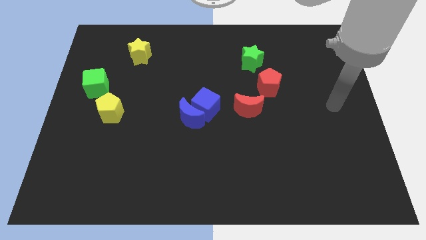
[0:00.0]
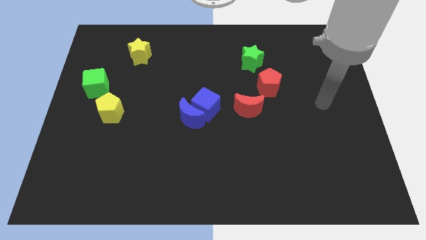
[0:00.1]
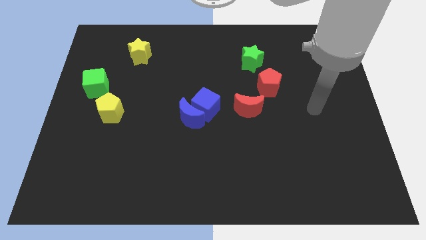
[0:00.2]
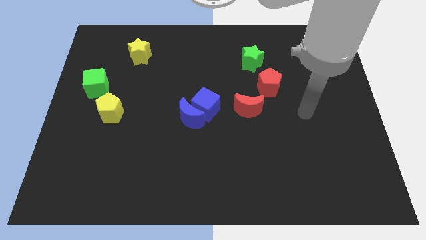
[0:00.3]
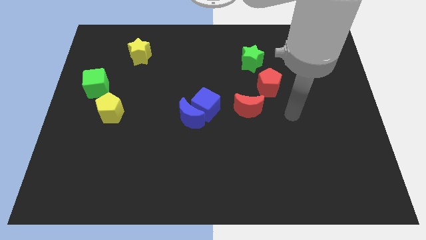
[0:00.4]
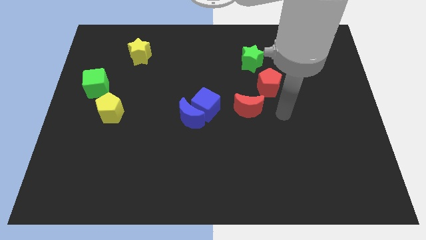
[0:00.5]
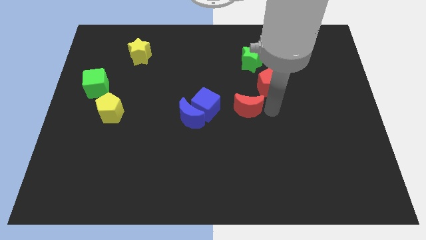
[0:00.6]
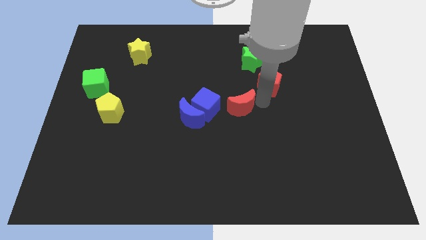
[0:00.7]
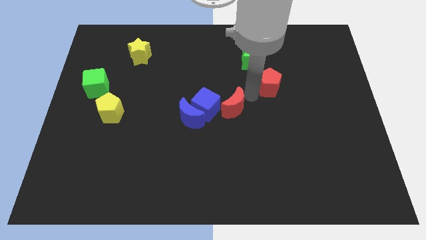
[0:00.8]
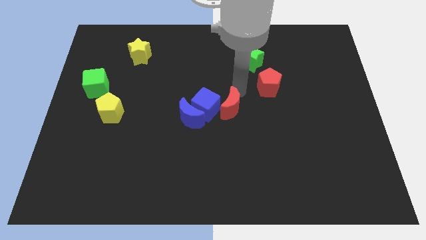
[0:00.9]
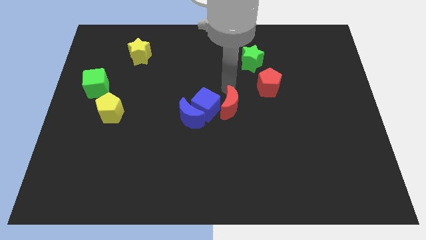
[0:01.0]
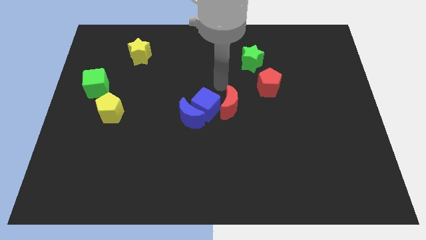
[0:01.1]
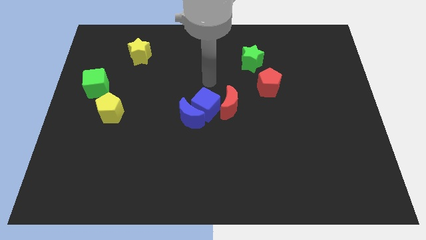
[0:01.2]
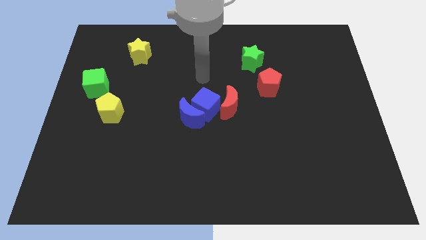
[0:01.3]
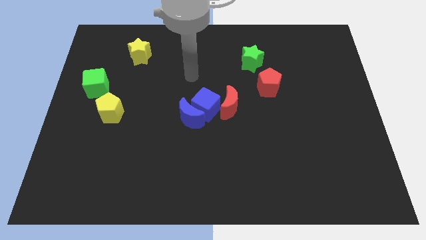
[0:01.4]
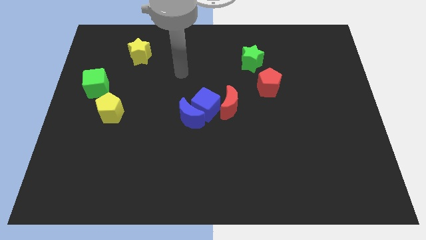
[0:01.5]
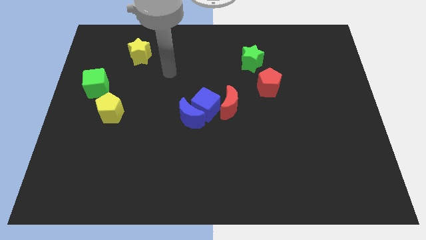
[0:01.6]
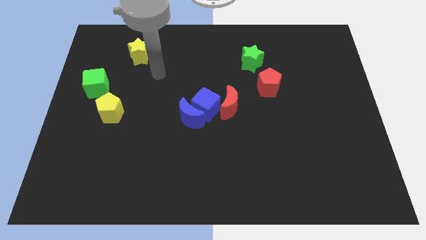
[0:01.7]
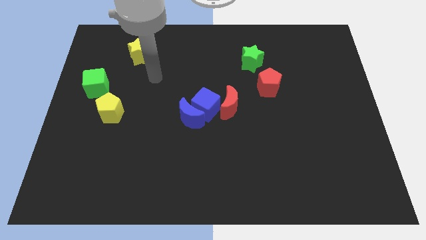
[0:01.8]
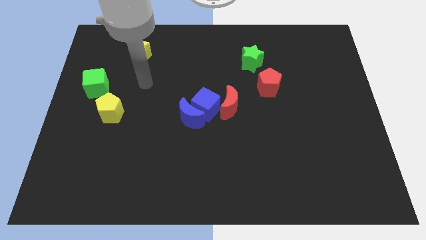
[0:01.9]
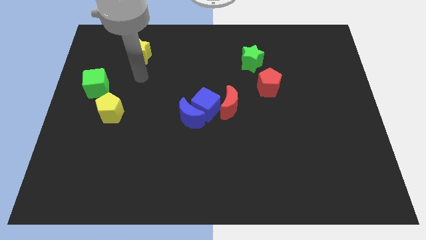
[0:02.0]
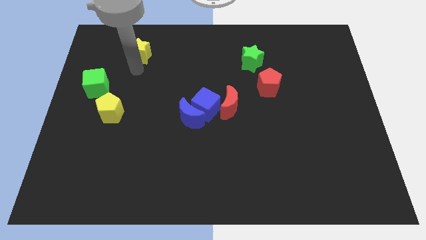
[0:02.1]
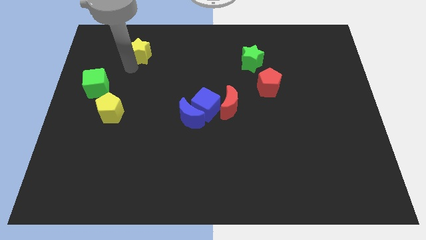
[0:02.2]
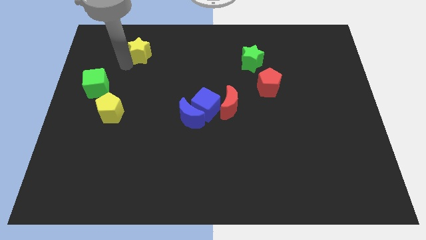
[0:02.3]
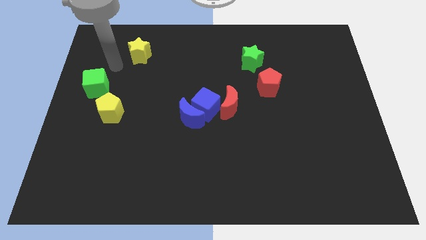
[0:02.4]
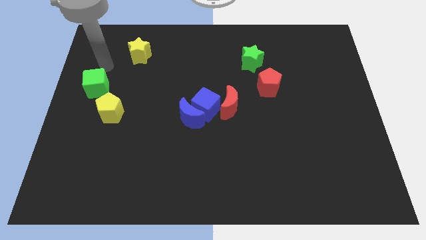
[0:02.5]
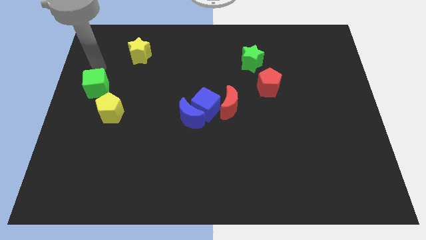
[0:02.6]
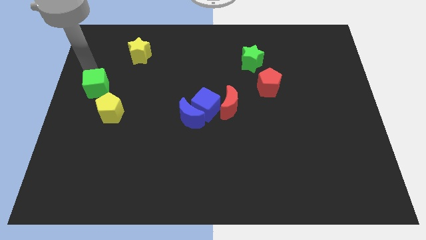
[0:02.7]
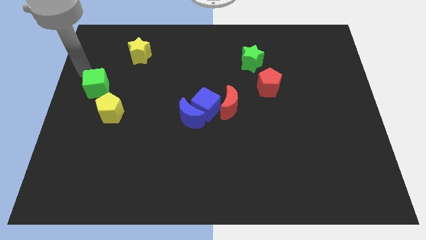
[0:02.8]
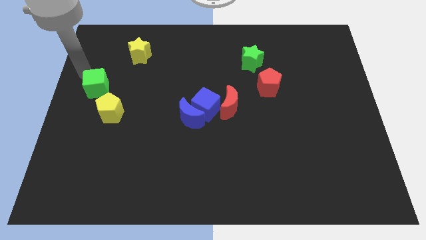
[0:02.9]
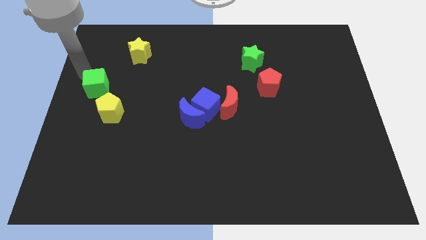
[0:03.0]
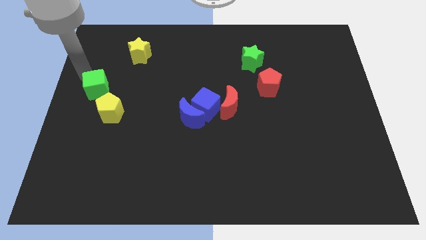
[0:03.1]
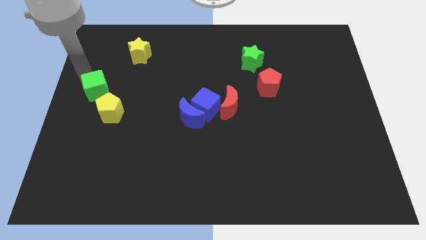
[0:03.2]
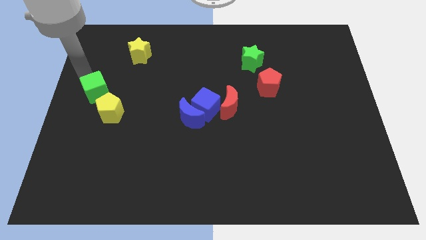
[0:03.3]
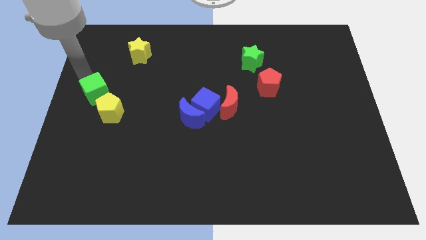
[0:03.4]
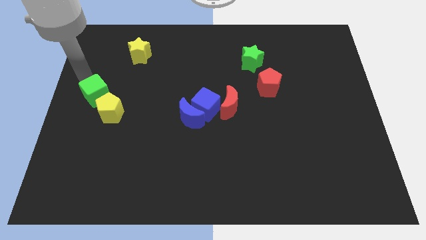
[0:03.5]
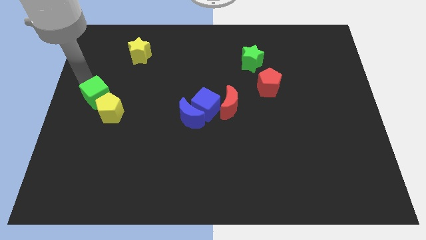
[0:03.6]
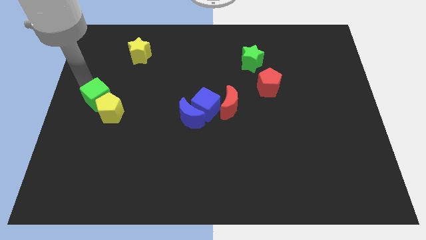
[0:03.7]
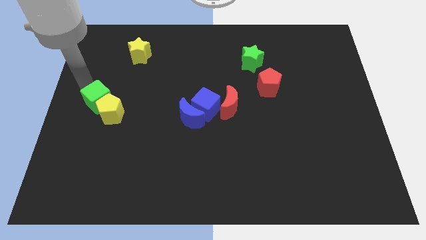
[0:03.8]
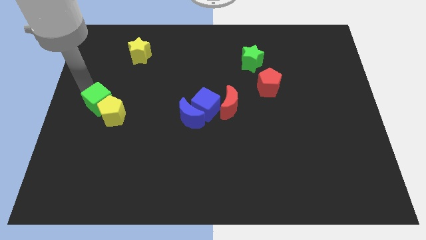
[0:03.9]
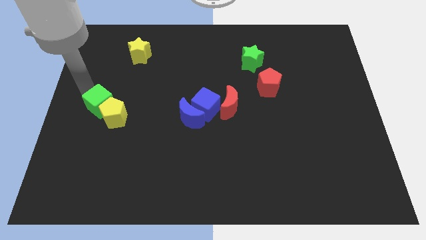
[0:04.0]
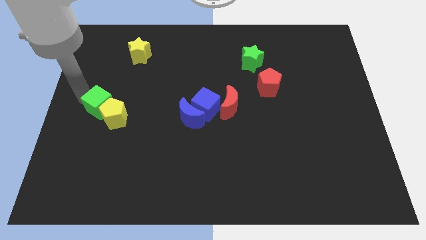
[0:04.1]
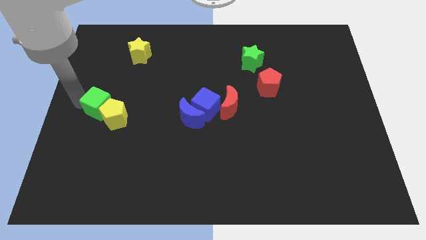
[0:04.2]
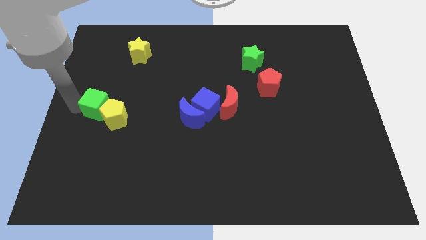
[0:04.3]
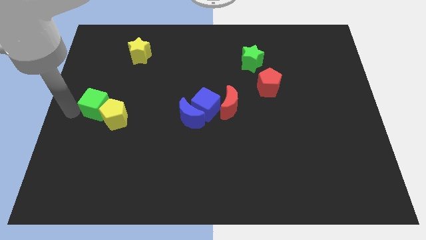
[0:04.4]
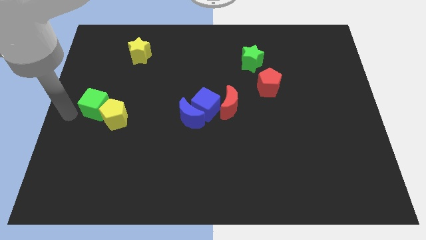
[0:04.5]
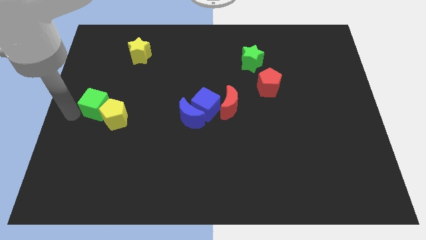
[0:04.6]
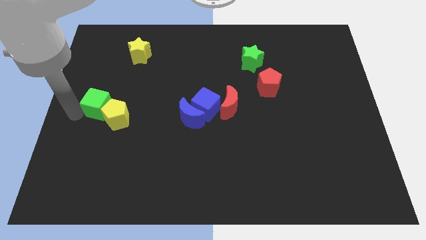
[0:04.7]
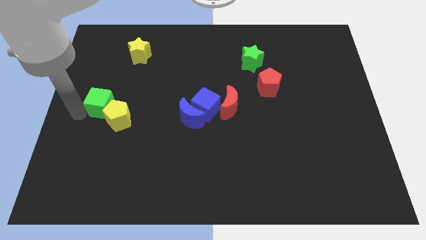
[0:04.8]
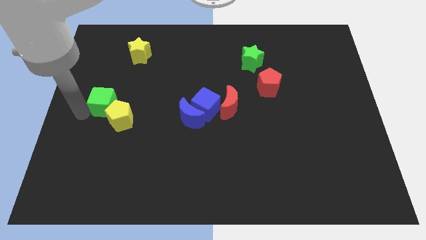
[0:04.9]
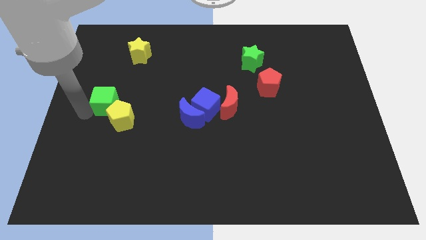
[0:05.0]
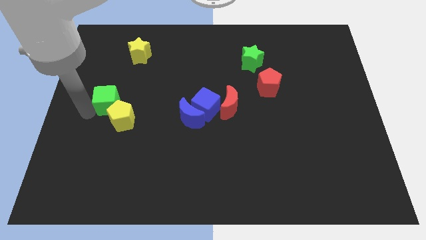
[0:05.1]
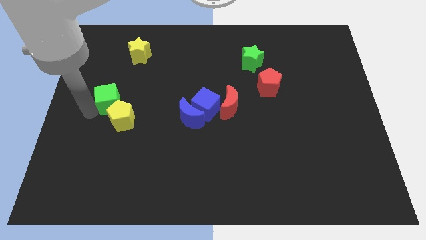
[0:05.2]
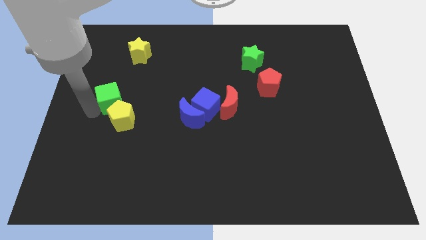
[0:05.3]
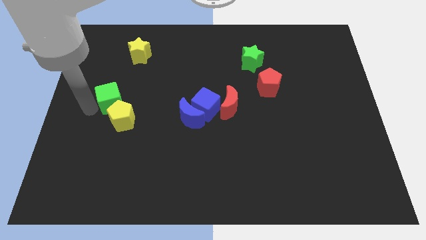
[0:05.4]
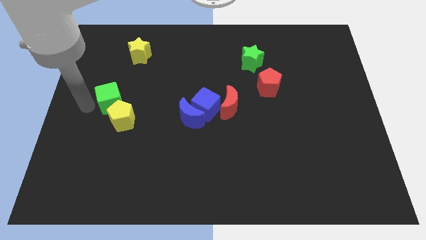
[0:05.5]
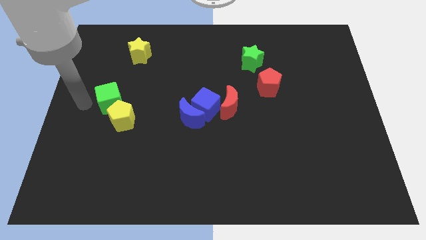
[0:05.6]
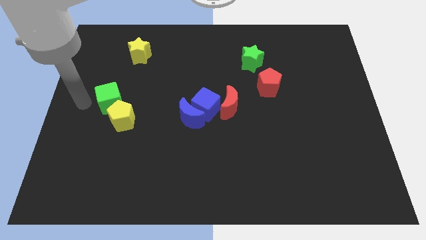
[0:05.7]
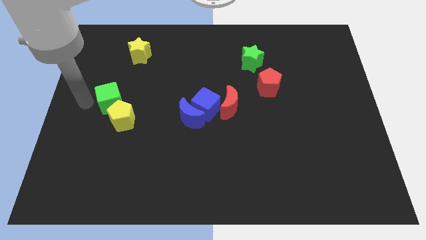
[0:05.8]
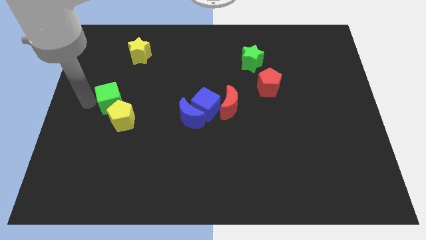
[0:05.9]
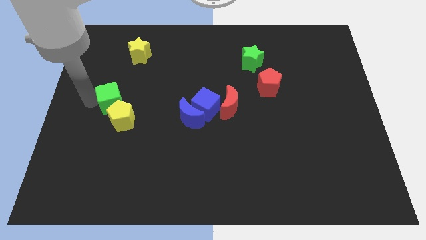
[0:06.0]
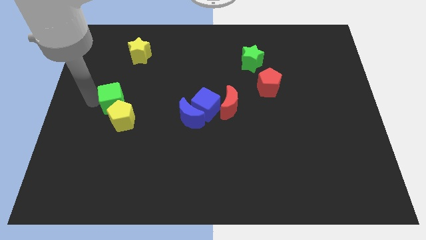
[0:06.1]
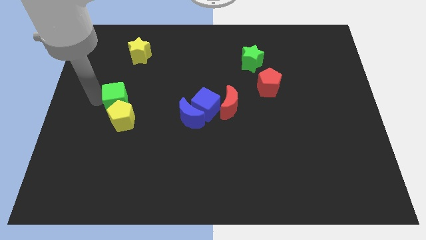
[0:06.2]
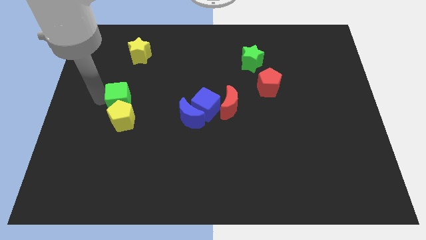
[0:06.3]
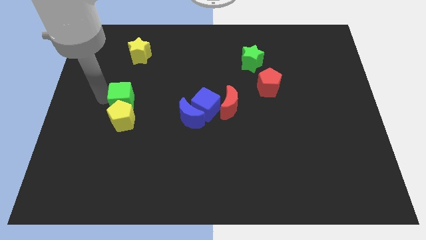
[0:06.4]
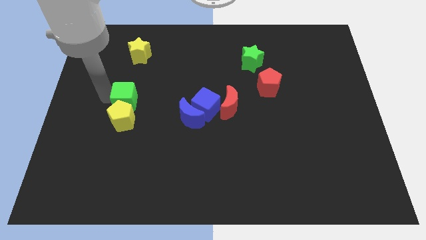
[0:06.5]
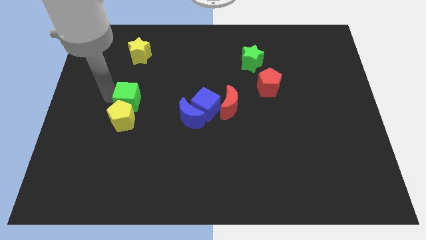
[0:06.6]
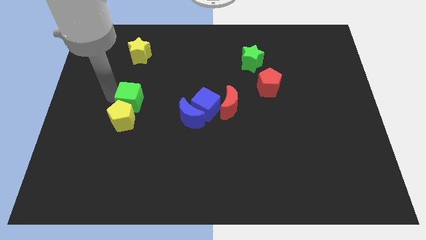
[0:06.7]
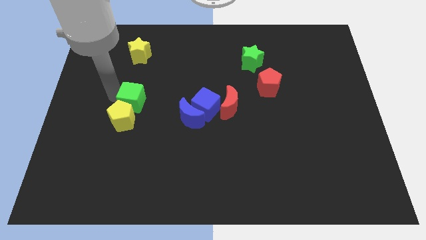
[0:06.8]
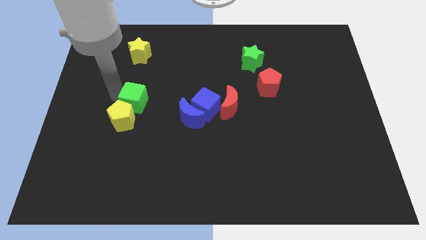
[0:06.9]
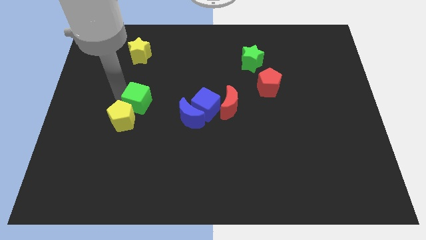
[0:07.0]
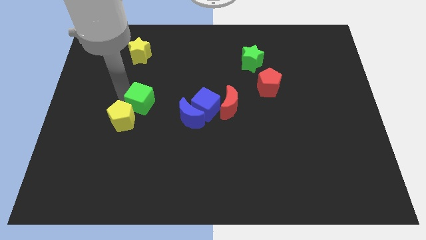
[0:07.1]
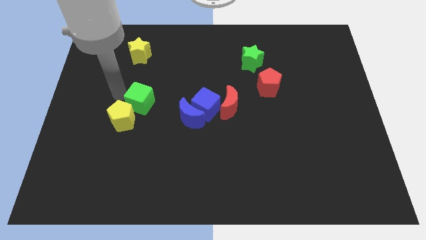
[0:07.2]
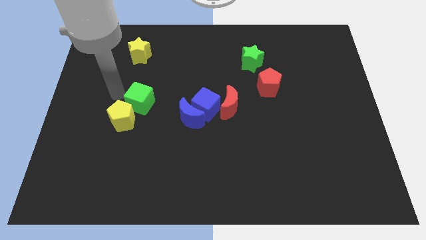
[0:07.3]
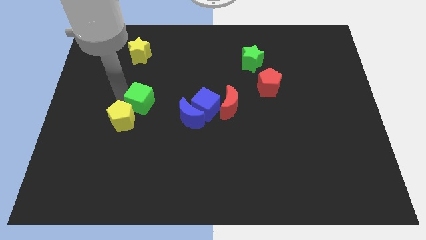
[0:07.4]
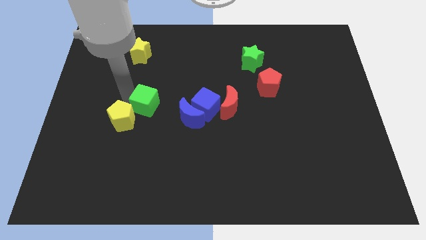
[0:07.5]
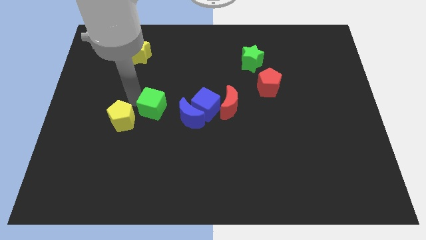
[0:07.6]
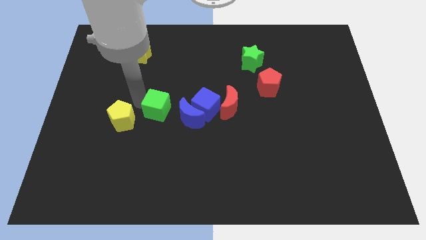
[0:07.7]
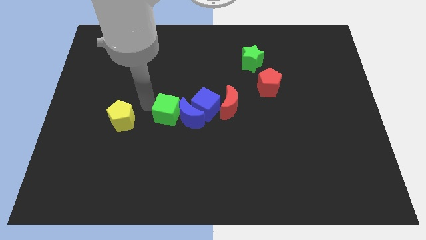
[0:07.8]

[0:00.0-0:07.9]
put the green cube close to the blue moon
